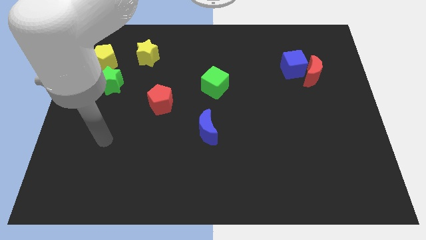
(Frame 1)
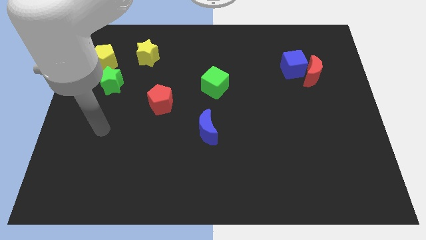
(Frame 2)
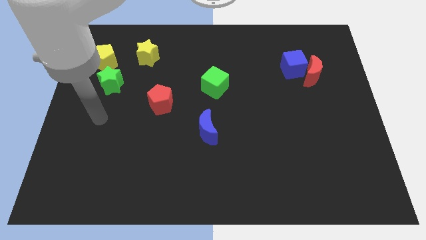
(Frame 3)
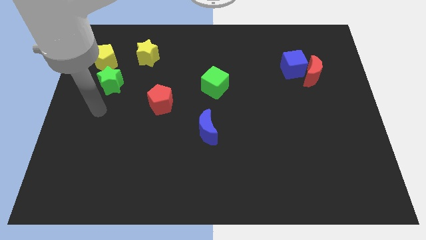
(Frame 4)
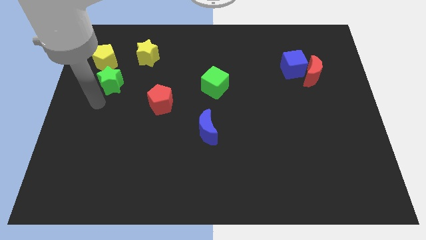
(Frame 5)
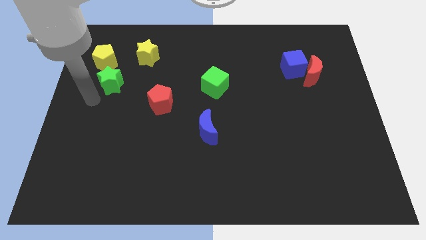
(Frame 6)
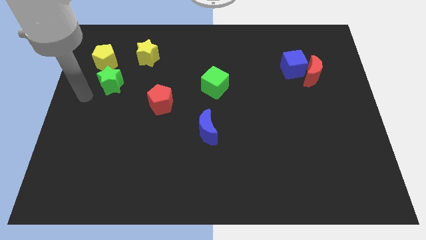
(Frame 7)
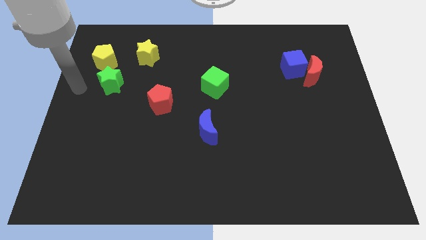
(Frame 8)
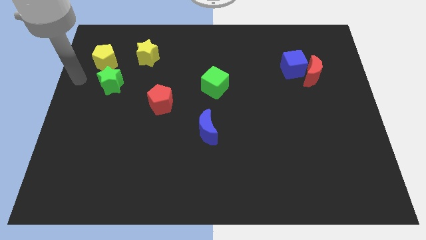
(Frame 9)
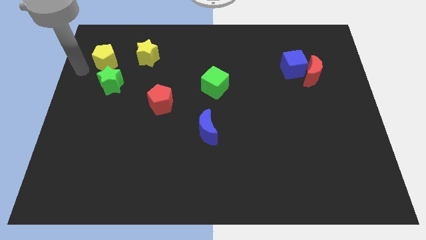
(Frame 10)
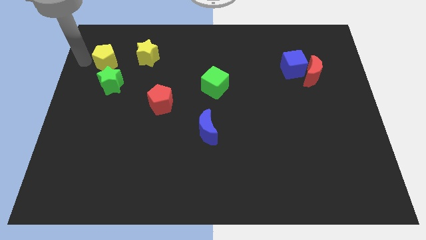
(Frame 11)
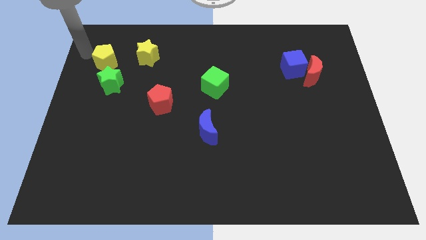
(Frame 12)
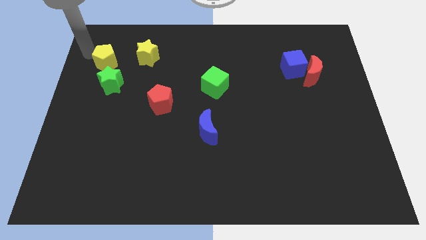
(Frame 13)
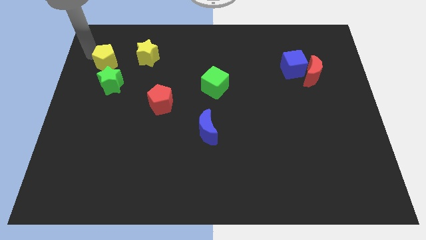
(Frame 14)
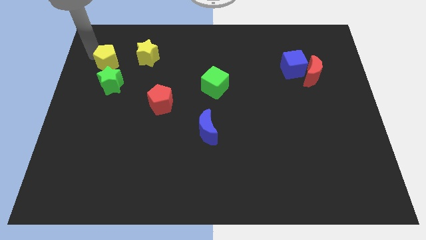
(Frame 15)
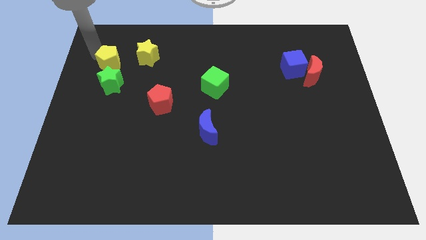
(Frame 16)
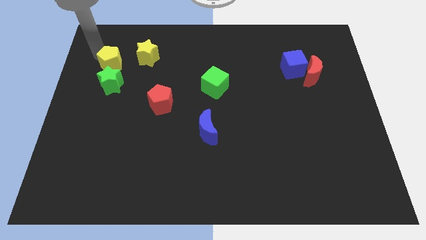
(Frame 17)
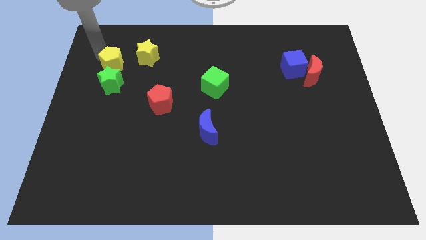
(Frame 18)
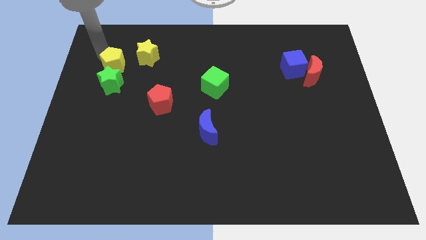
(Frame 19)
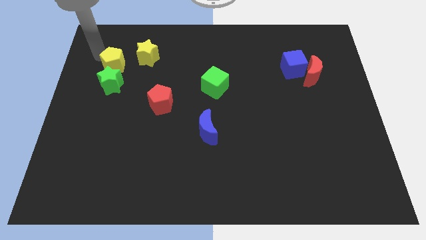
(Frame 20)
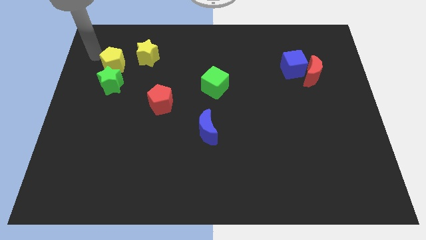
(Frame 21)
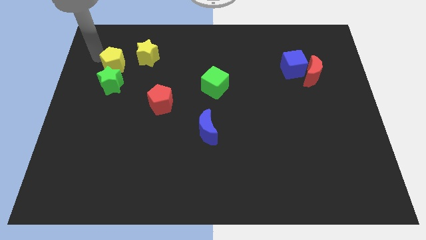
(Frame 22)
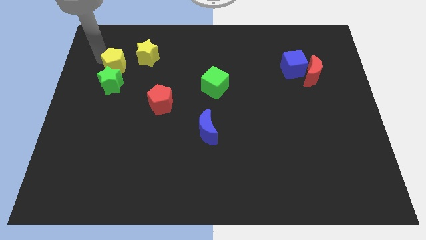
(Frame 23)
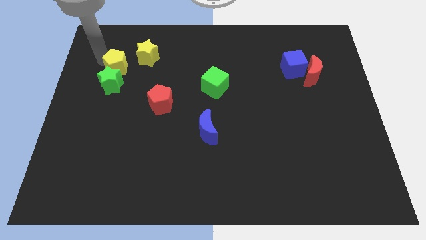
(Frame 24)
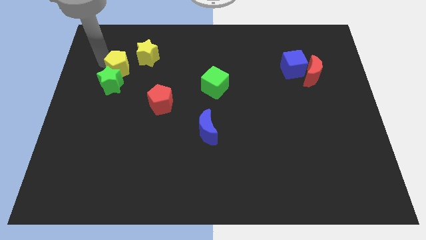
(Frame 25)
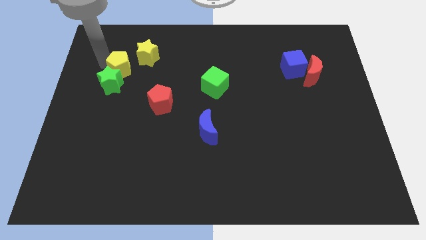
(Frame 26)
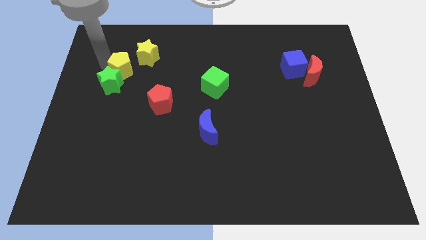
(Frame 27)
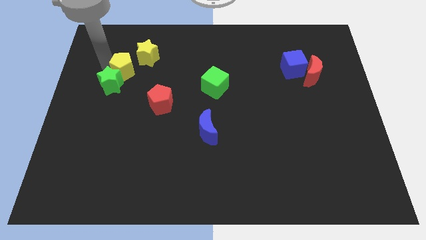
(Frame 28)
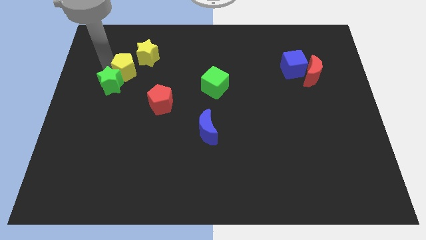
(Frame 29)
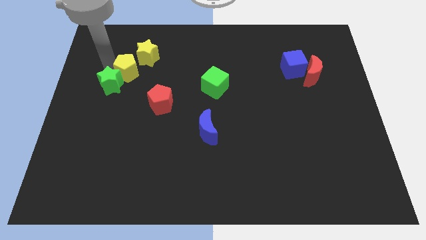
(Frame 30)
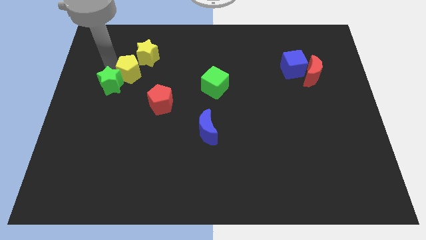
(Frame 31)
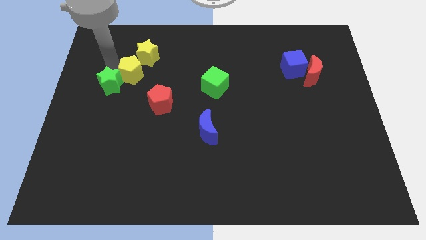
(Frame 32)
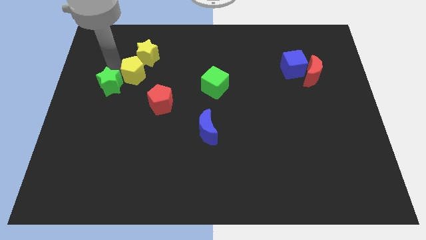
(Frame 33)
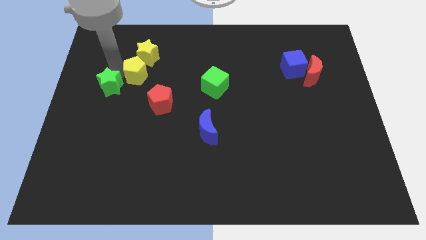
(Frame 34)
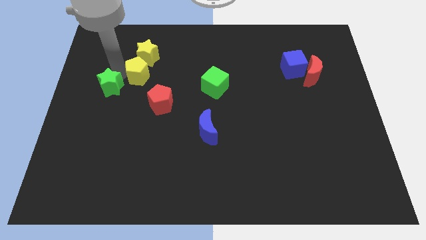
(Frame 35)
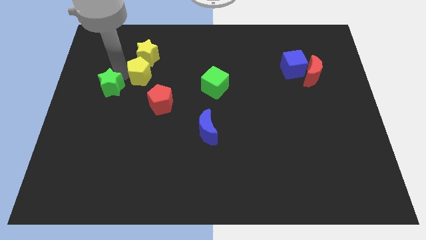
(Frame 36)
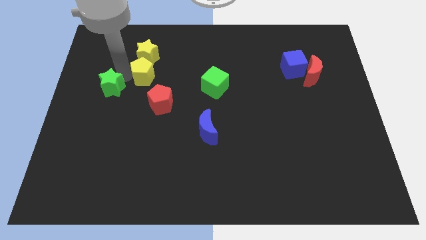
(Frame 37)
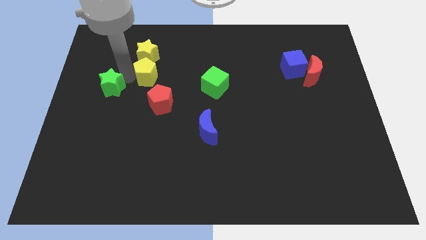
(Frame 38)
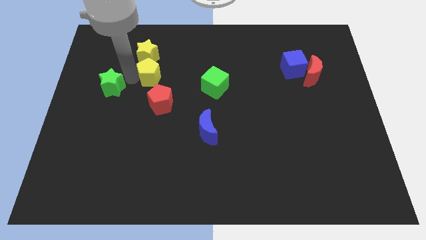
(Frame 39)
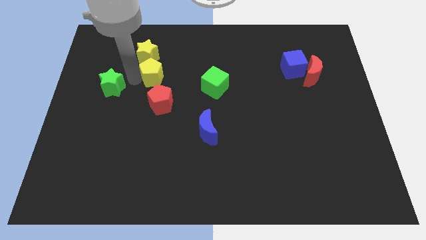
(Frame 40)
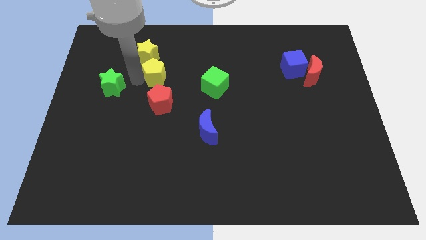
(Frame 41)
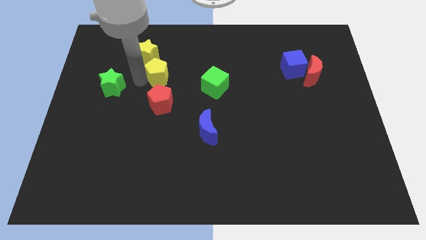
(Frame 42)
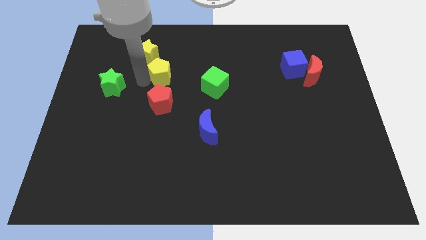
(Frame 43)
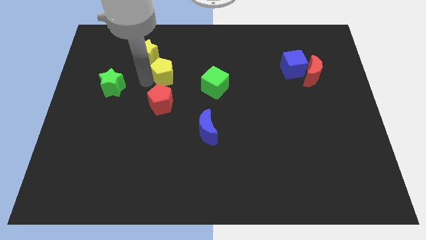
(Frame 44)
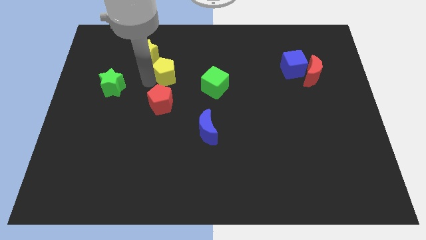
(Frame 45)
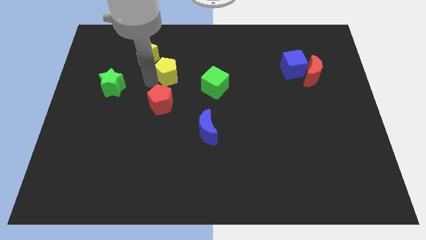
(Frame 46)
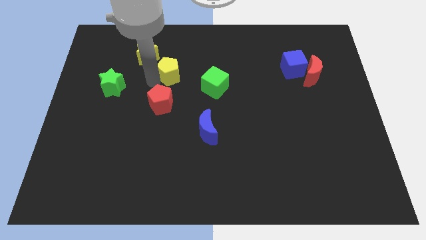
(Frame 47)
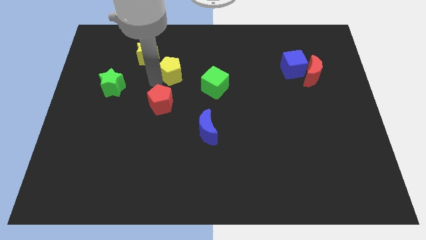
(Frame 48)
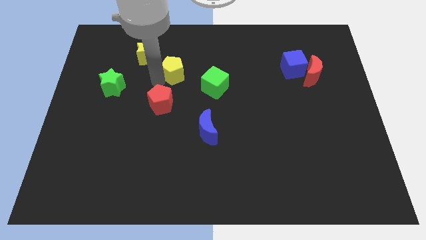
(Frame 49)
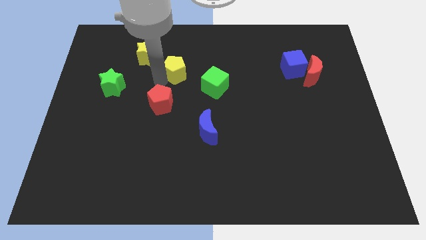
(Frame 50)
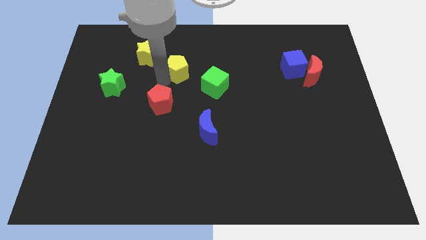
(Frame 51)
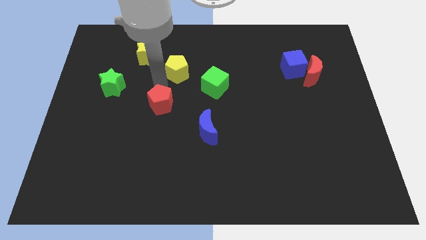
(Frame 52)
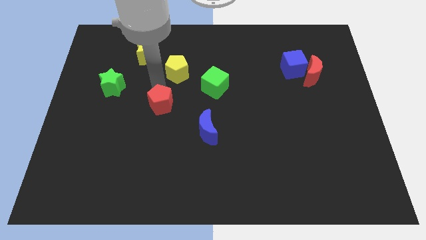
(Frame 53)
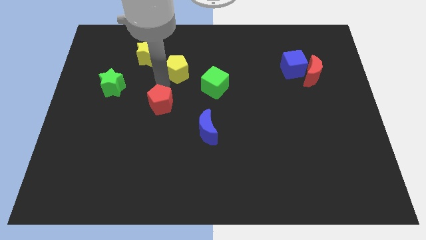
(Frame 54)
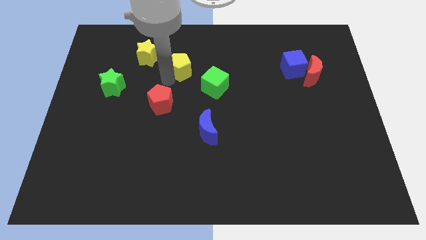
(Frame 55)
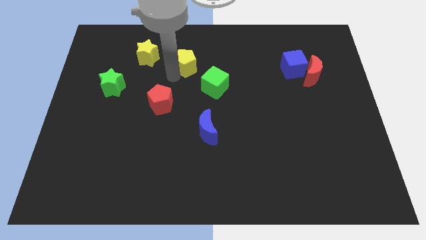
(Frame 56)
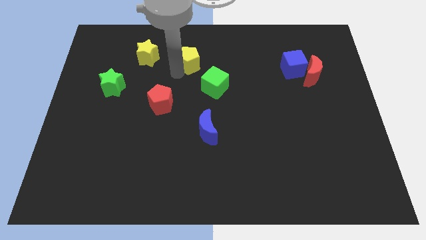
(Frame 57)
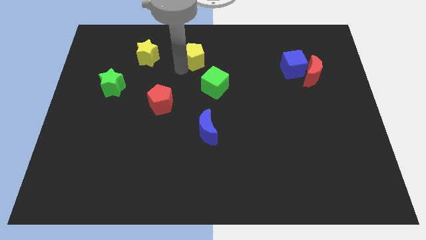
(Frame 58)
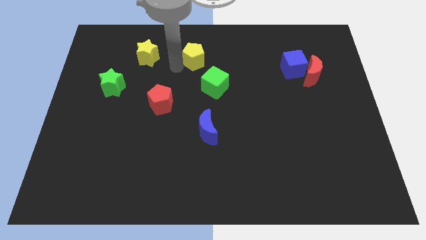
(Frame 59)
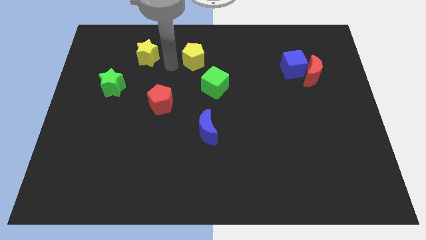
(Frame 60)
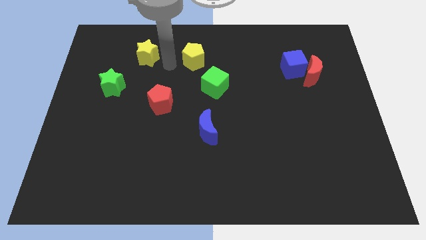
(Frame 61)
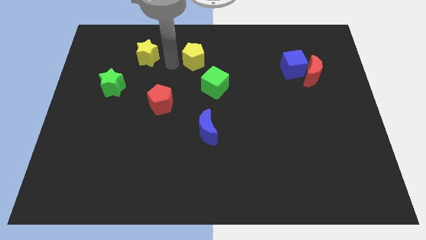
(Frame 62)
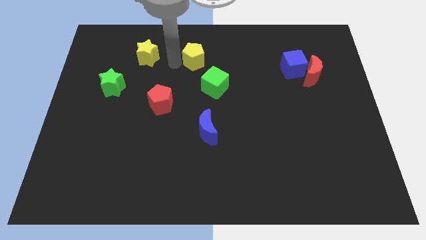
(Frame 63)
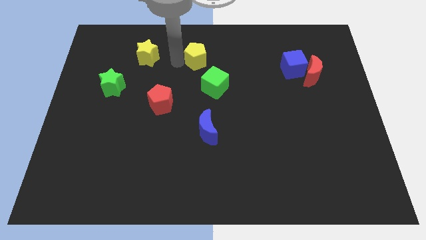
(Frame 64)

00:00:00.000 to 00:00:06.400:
put the yellow pentagon to the top of the green cube

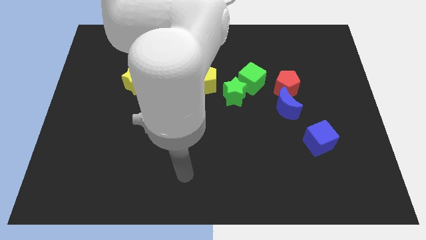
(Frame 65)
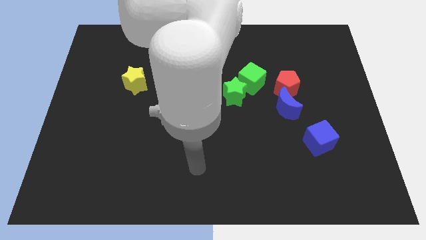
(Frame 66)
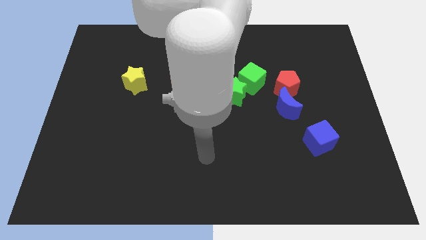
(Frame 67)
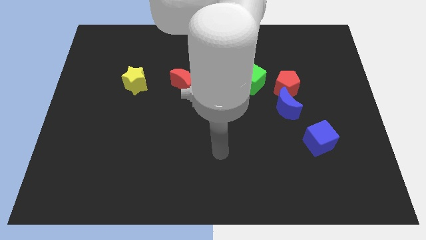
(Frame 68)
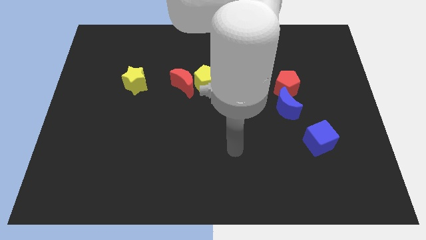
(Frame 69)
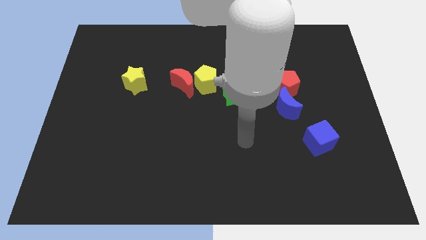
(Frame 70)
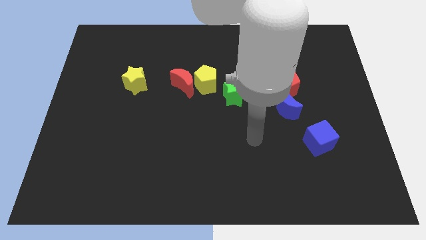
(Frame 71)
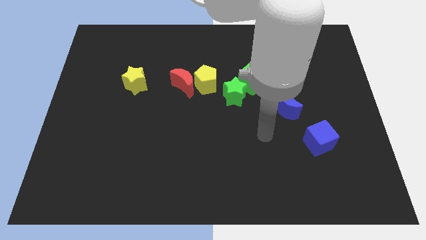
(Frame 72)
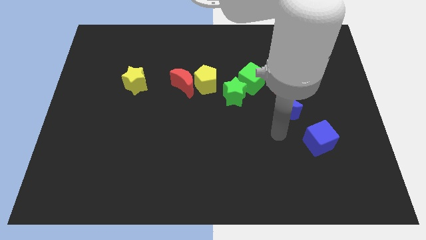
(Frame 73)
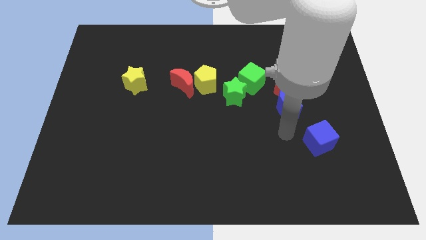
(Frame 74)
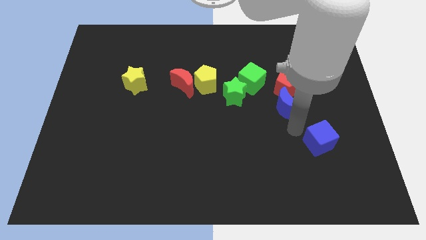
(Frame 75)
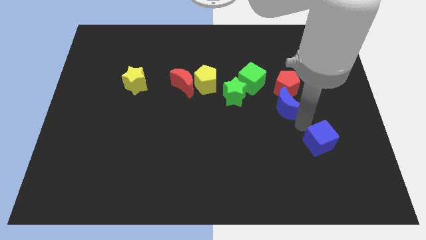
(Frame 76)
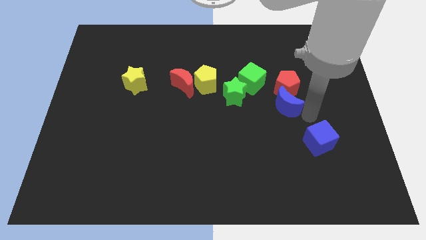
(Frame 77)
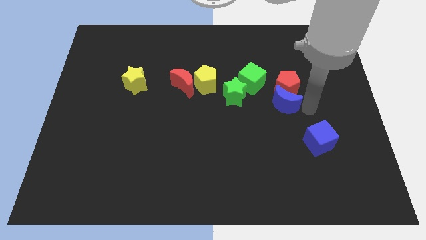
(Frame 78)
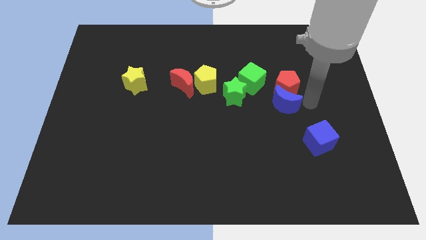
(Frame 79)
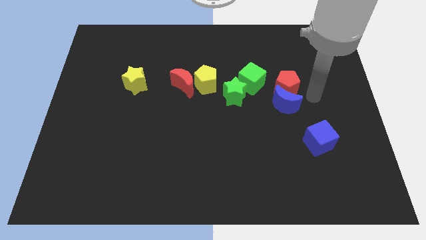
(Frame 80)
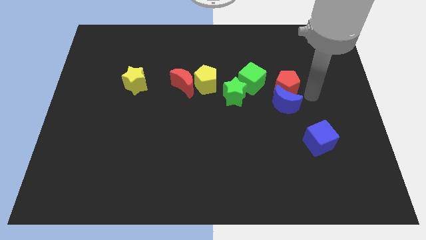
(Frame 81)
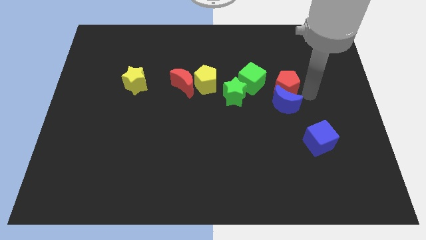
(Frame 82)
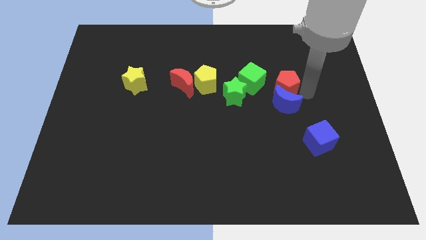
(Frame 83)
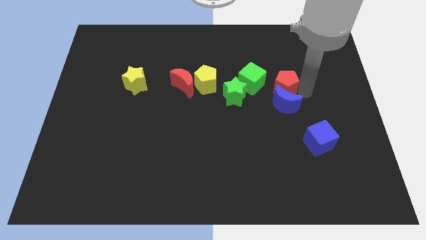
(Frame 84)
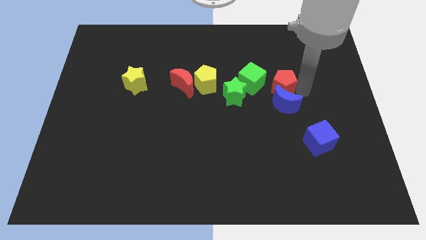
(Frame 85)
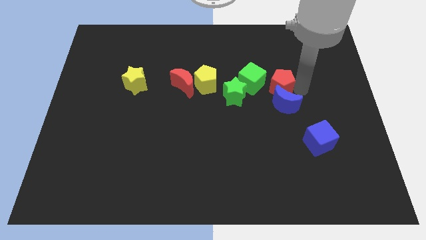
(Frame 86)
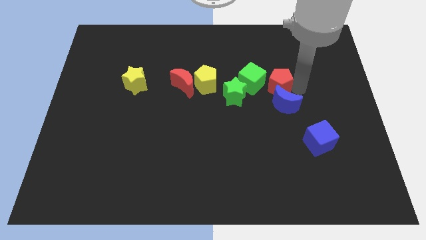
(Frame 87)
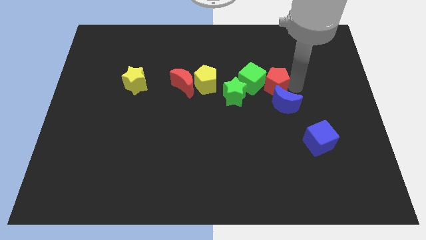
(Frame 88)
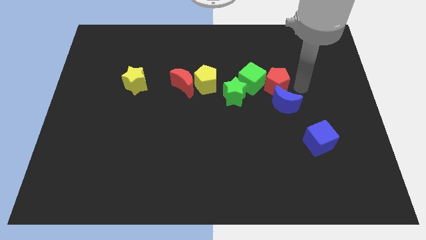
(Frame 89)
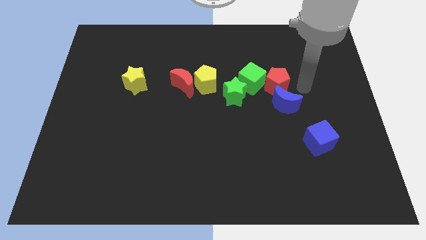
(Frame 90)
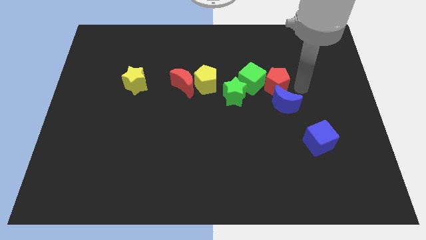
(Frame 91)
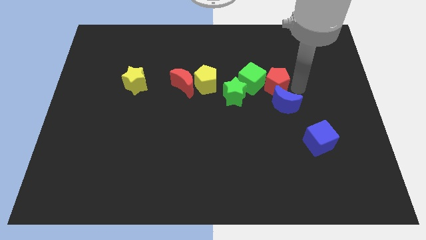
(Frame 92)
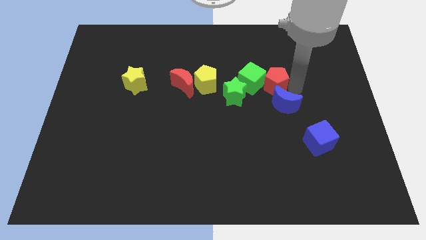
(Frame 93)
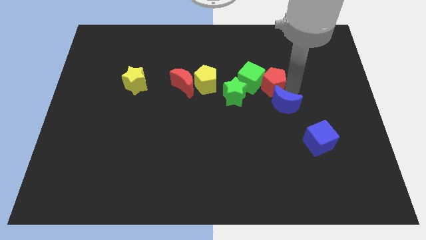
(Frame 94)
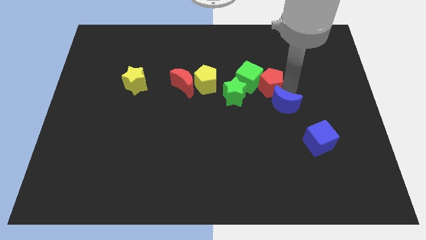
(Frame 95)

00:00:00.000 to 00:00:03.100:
push the red pentagon to the right of the yellow pentagon
